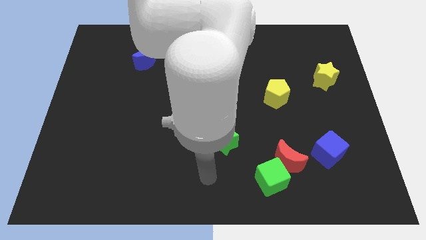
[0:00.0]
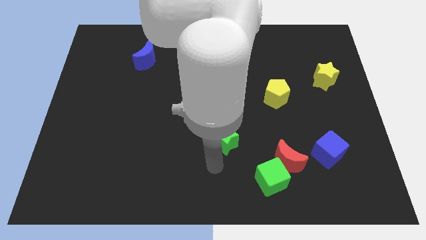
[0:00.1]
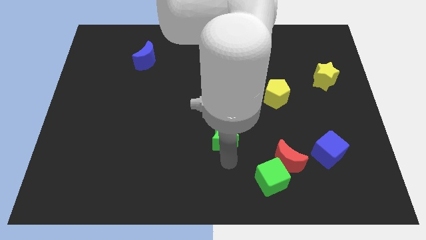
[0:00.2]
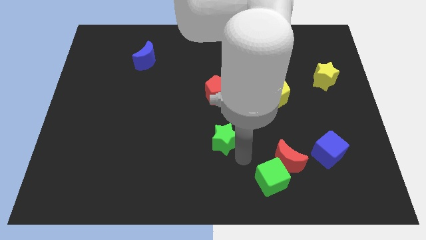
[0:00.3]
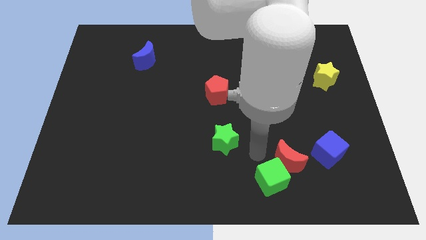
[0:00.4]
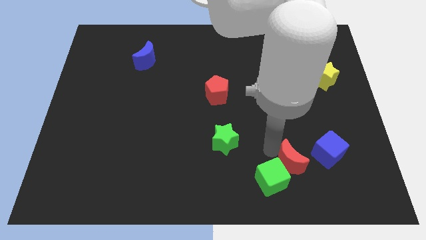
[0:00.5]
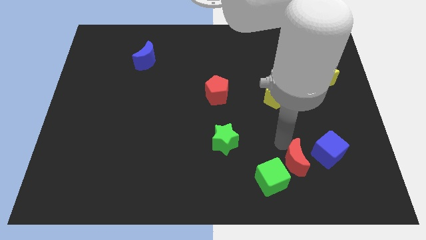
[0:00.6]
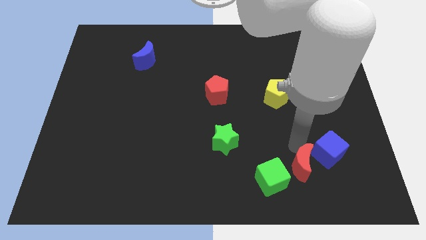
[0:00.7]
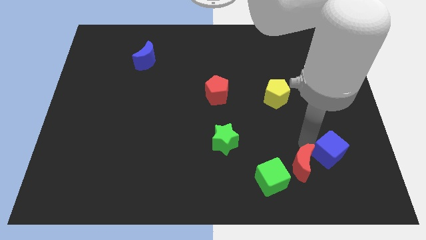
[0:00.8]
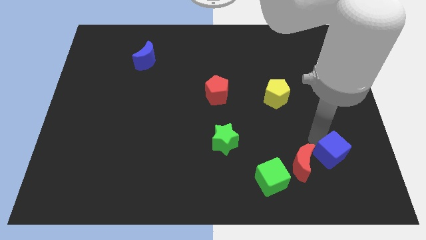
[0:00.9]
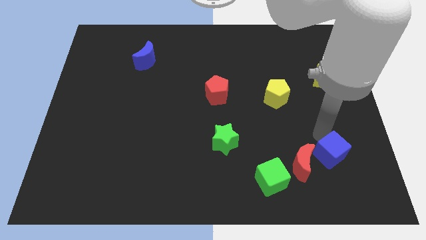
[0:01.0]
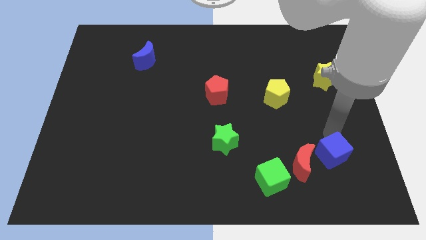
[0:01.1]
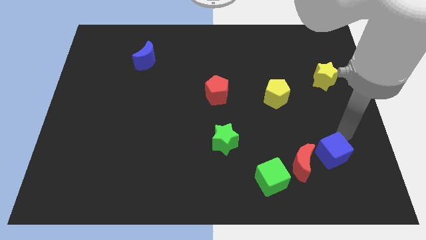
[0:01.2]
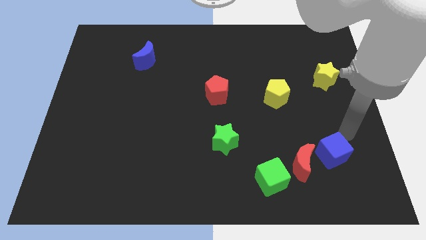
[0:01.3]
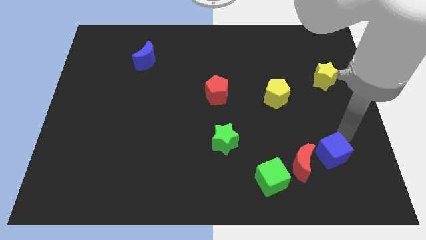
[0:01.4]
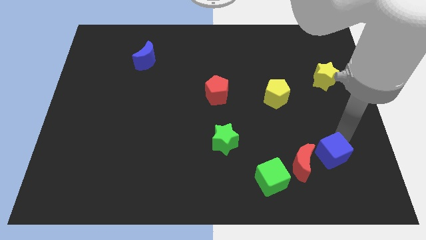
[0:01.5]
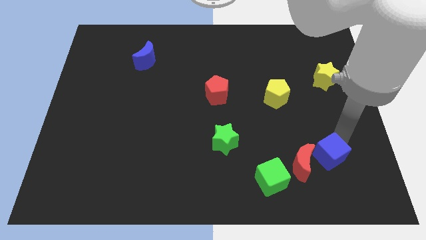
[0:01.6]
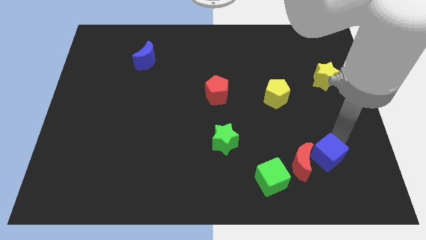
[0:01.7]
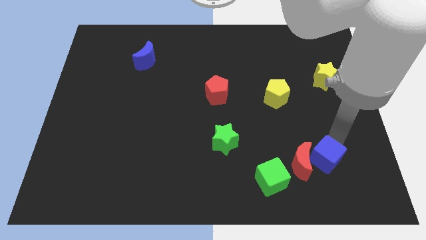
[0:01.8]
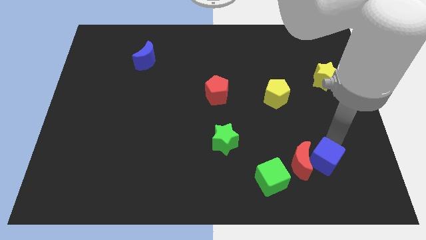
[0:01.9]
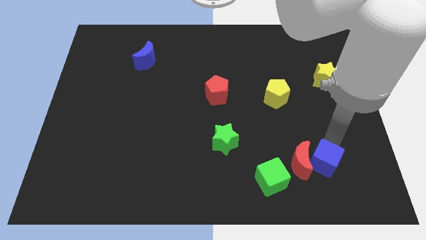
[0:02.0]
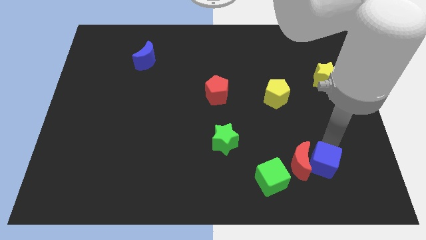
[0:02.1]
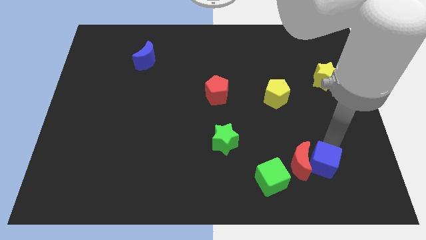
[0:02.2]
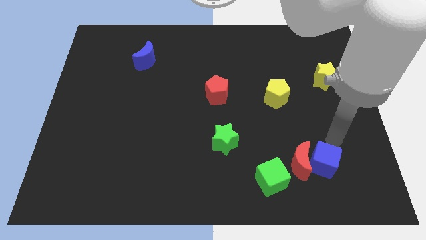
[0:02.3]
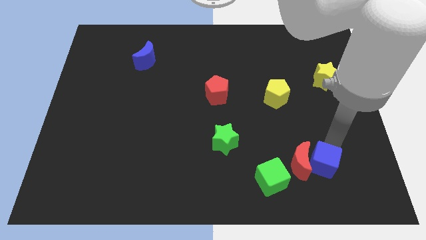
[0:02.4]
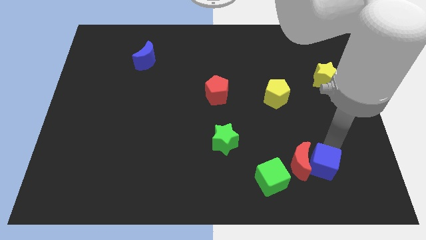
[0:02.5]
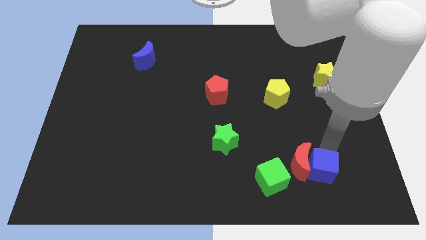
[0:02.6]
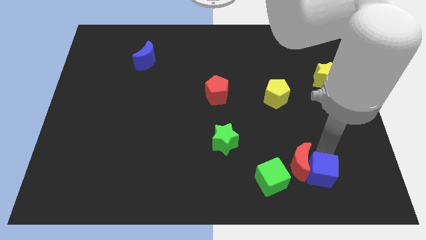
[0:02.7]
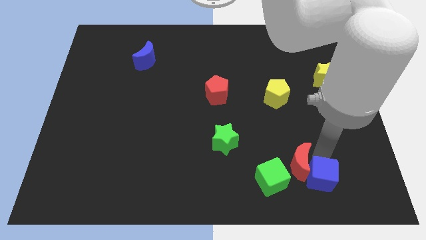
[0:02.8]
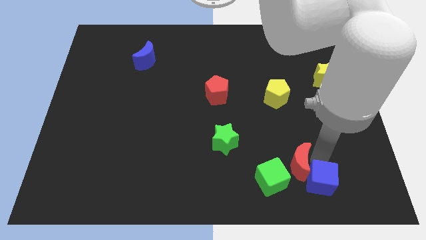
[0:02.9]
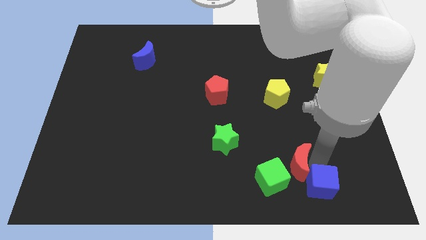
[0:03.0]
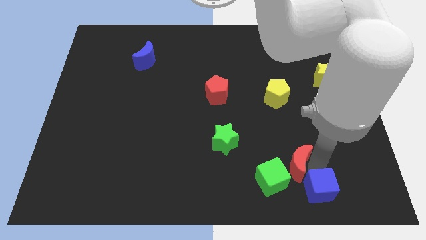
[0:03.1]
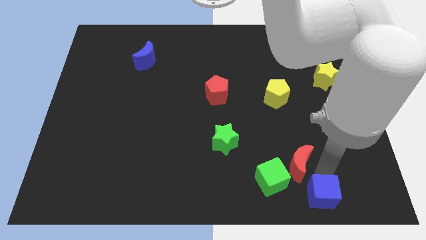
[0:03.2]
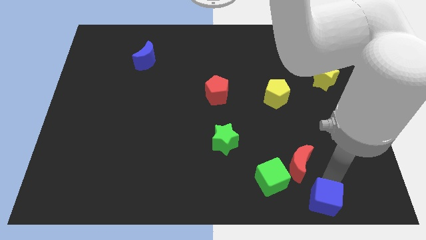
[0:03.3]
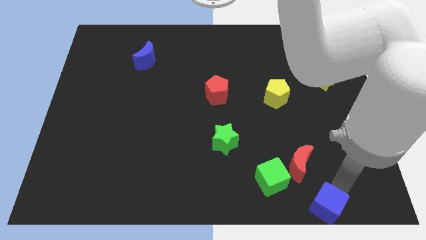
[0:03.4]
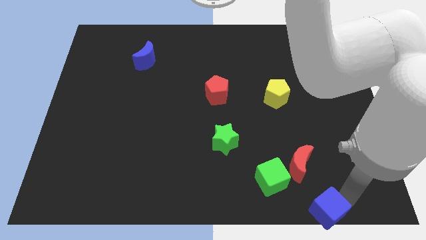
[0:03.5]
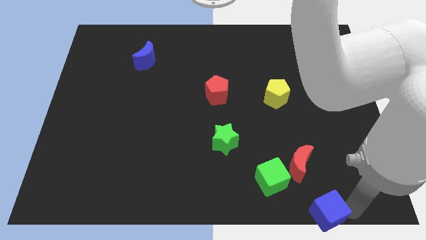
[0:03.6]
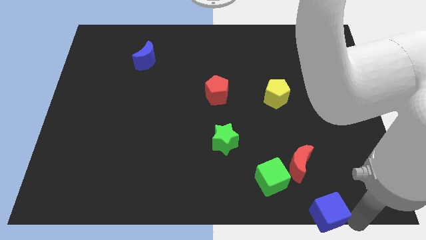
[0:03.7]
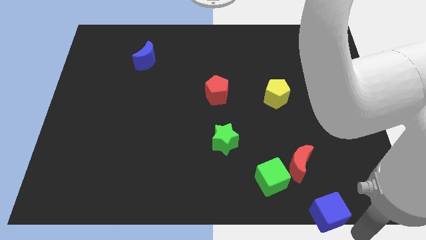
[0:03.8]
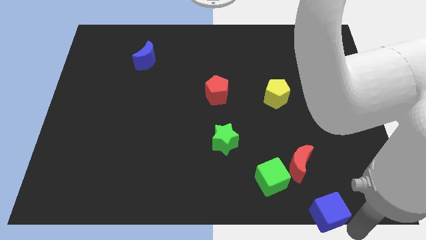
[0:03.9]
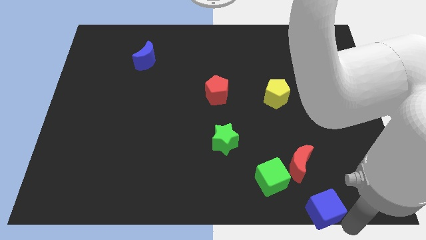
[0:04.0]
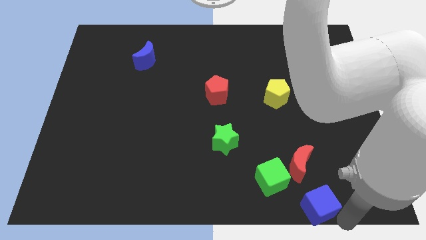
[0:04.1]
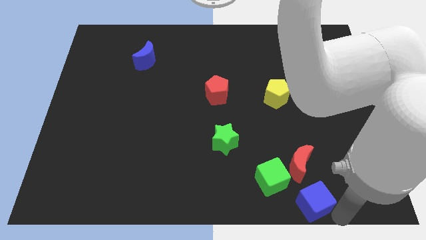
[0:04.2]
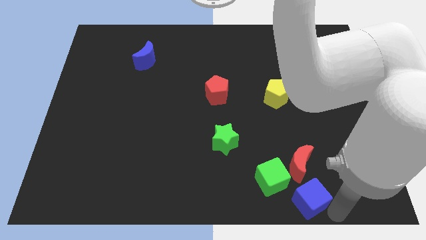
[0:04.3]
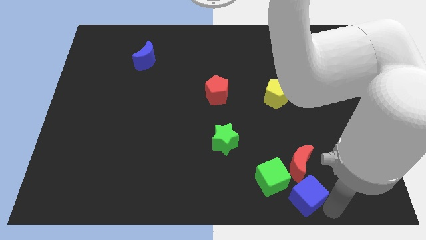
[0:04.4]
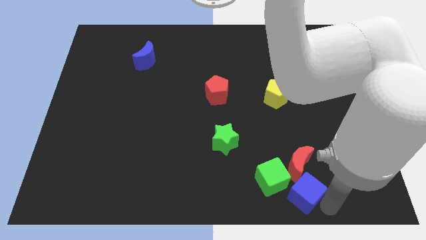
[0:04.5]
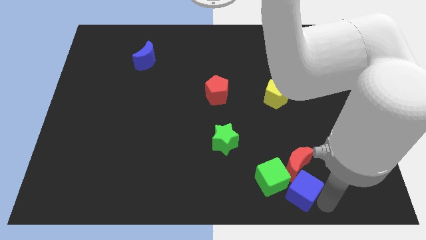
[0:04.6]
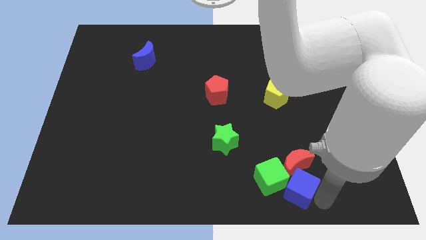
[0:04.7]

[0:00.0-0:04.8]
slide the blue cube towards the green cube

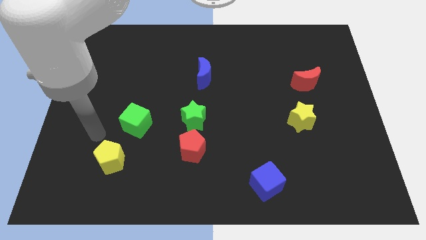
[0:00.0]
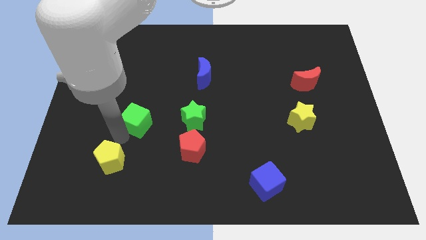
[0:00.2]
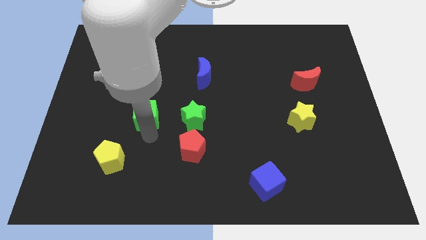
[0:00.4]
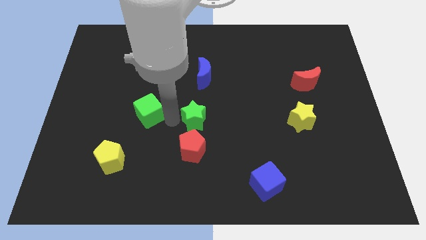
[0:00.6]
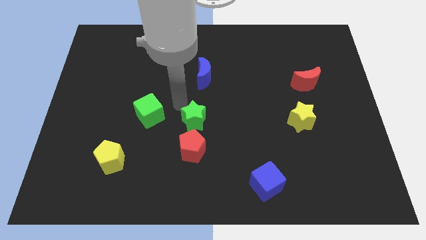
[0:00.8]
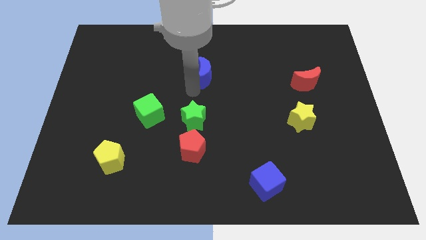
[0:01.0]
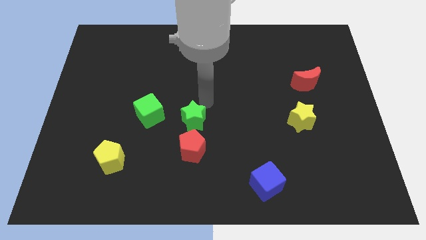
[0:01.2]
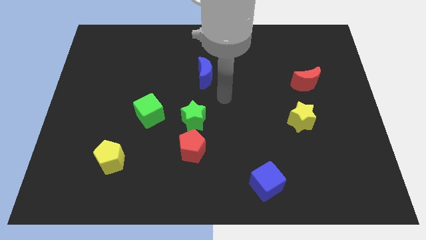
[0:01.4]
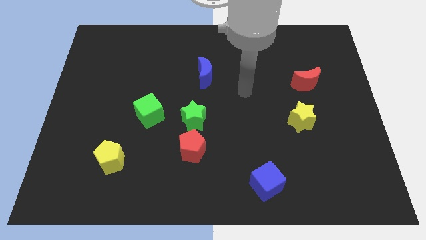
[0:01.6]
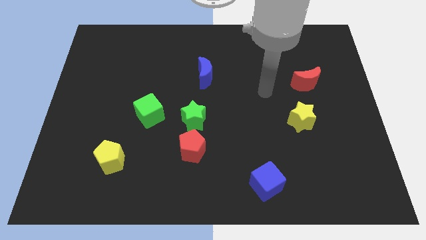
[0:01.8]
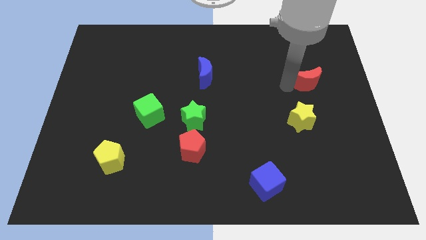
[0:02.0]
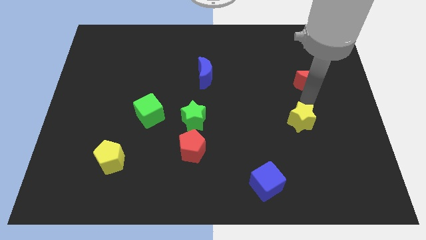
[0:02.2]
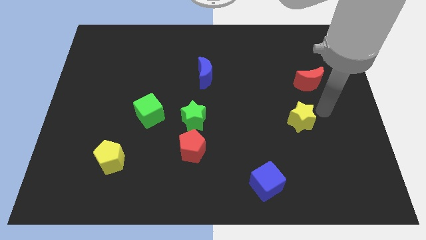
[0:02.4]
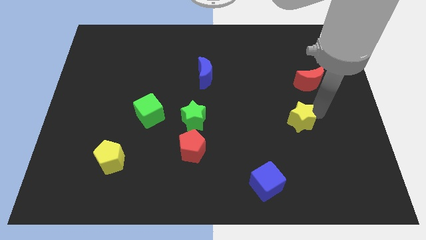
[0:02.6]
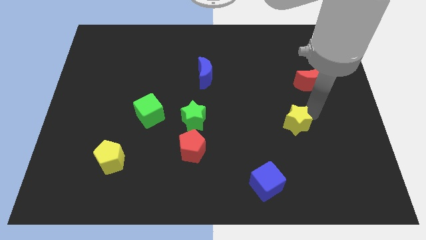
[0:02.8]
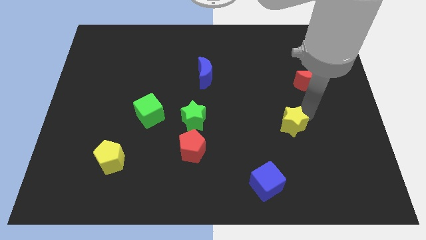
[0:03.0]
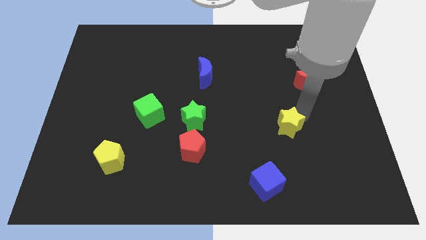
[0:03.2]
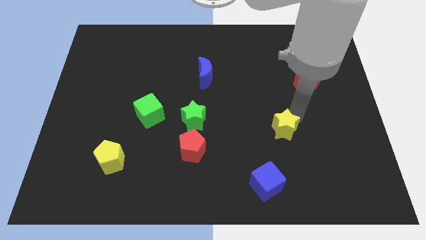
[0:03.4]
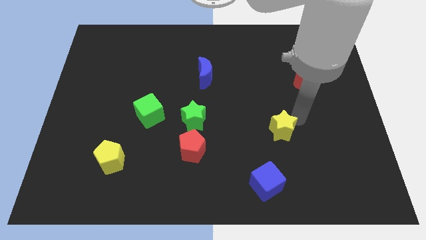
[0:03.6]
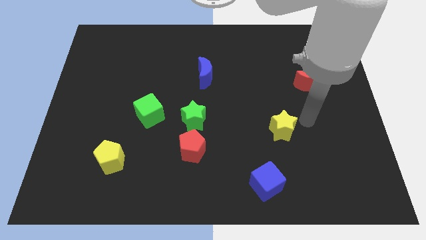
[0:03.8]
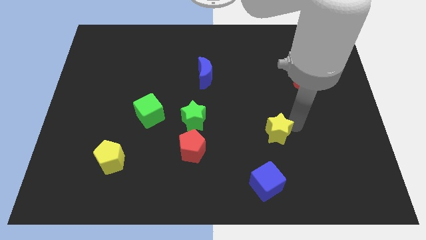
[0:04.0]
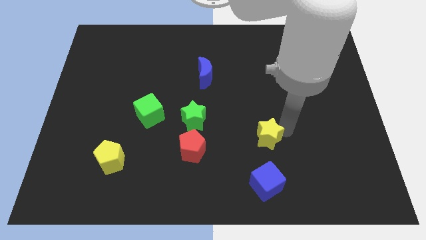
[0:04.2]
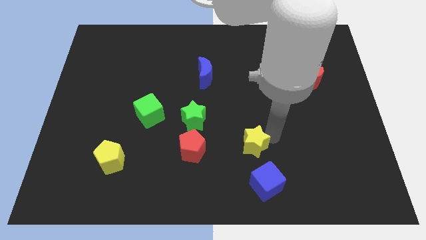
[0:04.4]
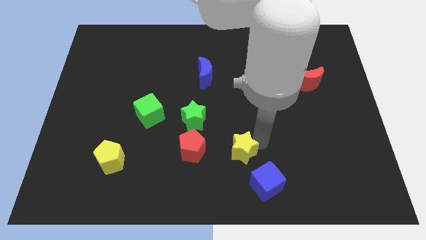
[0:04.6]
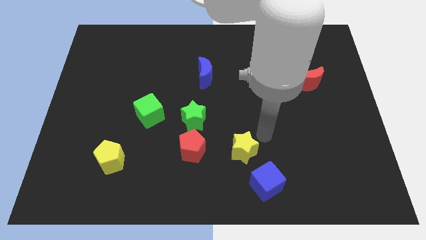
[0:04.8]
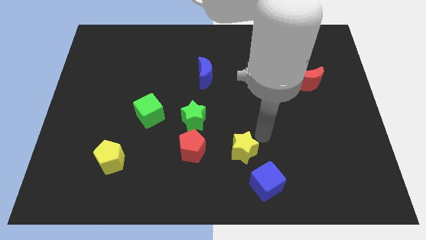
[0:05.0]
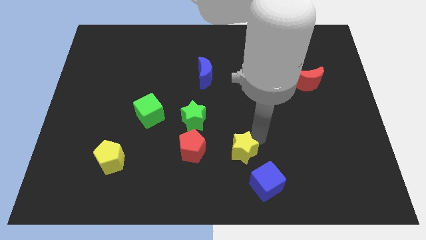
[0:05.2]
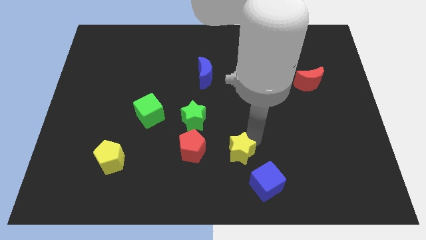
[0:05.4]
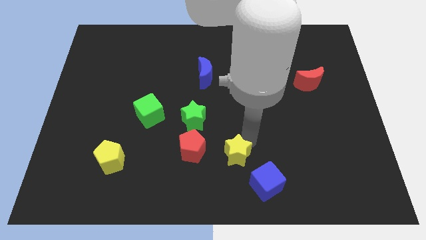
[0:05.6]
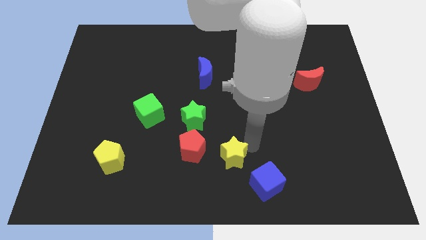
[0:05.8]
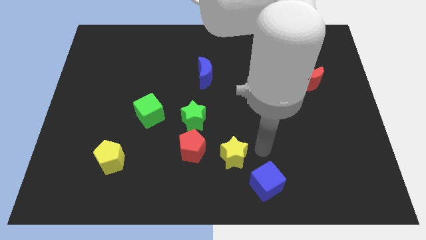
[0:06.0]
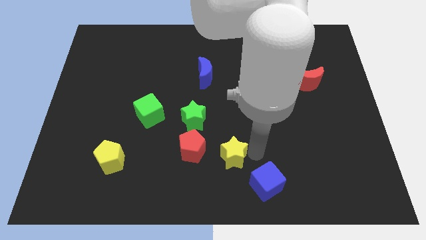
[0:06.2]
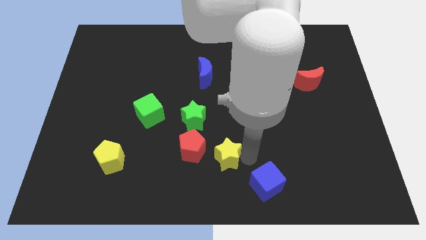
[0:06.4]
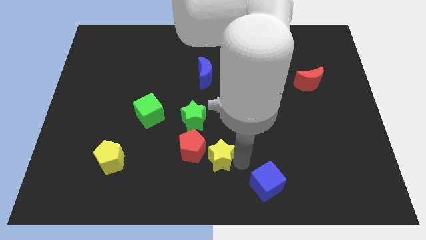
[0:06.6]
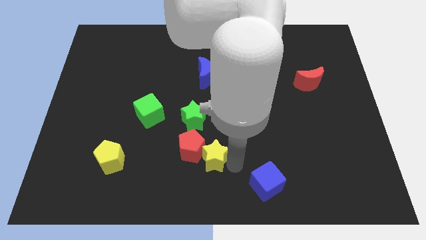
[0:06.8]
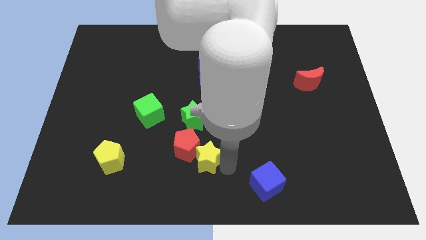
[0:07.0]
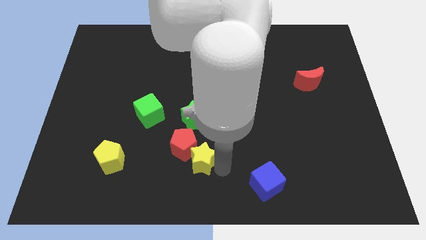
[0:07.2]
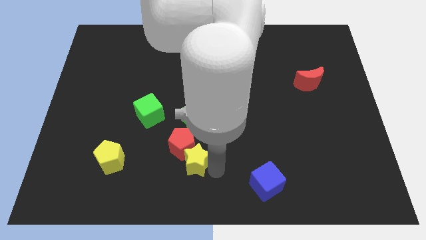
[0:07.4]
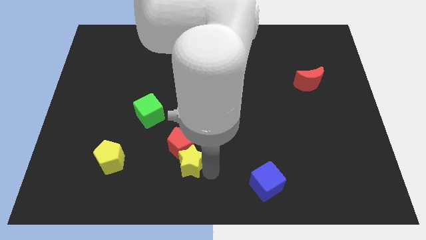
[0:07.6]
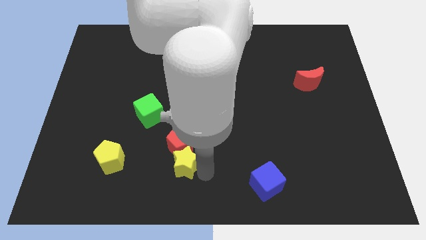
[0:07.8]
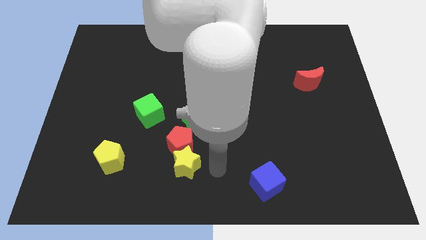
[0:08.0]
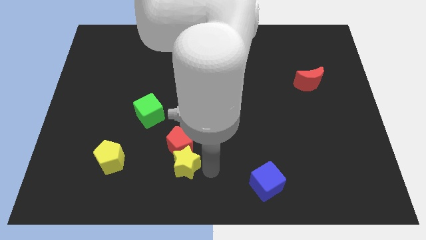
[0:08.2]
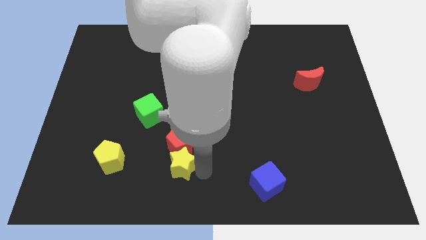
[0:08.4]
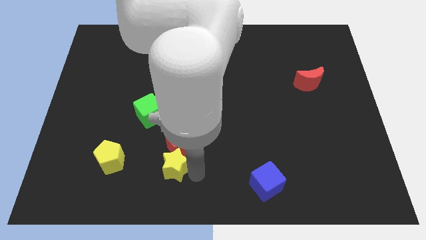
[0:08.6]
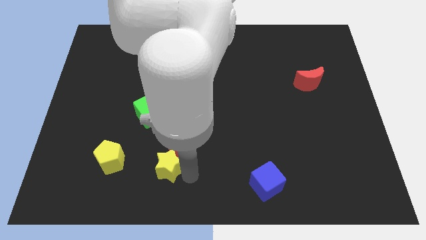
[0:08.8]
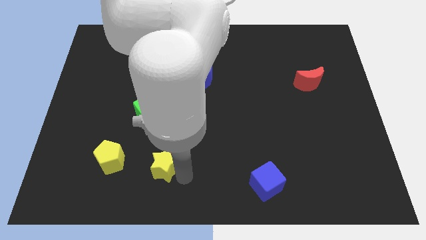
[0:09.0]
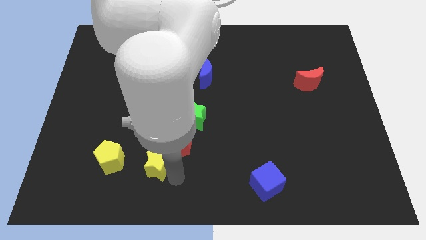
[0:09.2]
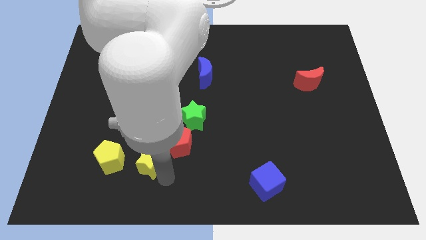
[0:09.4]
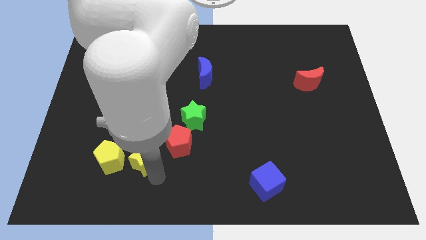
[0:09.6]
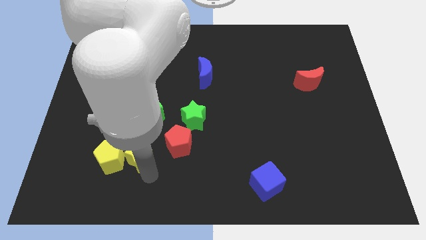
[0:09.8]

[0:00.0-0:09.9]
move the yellow star next to the yellow pentagon
